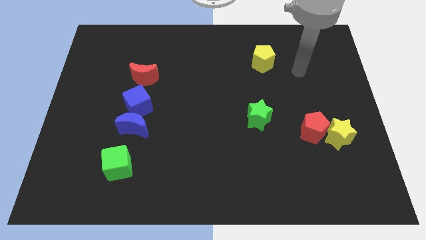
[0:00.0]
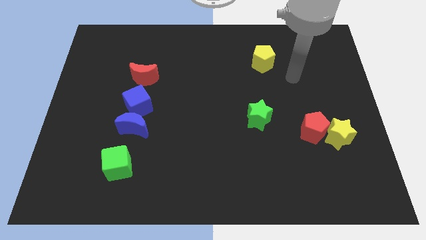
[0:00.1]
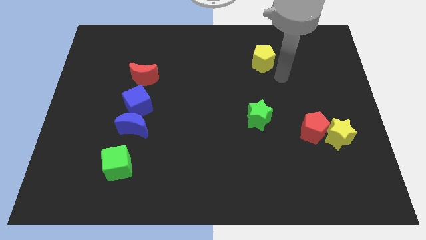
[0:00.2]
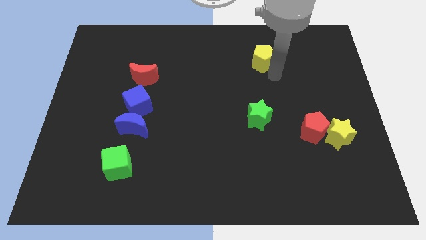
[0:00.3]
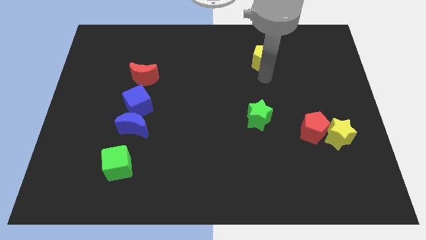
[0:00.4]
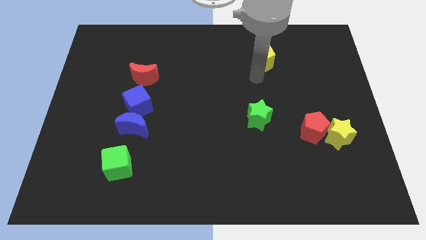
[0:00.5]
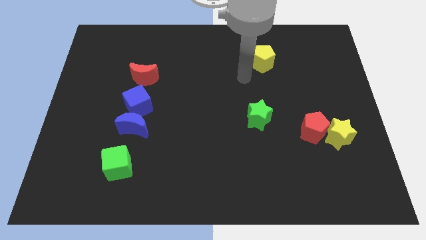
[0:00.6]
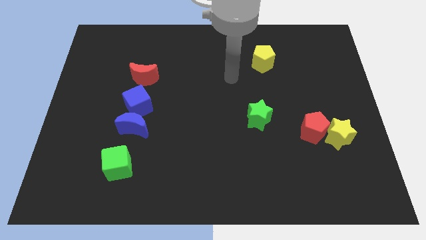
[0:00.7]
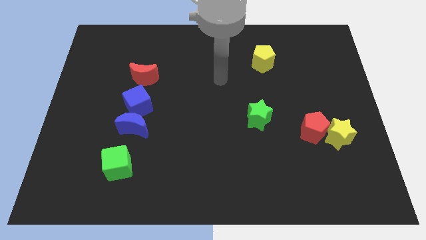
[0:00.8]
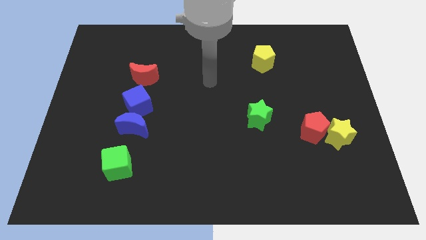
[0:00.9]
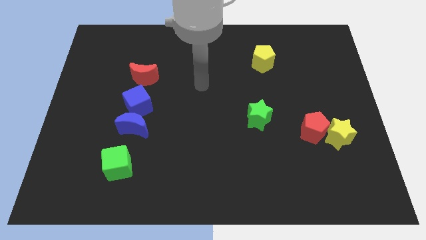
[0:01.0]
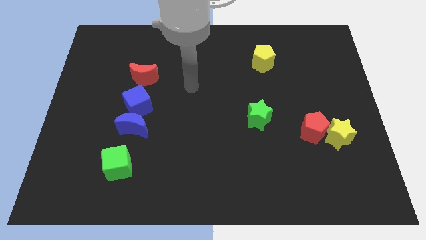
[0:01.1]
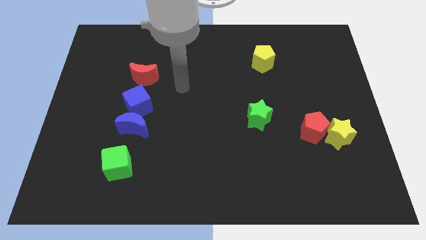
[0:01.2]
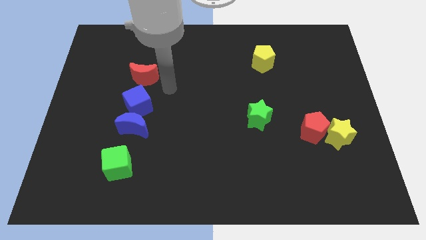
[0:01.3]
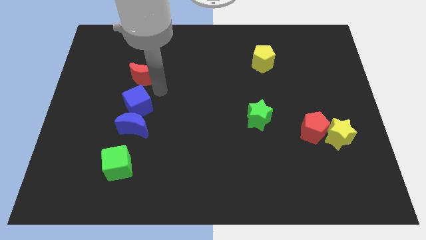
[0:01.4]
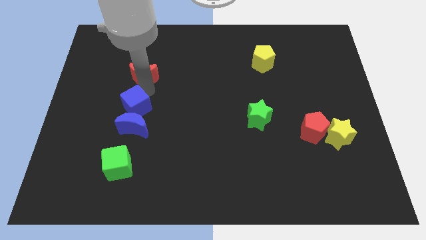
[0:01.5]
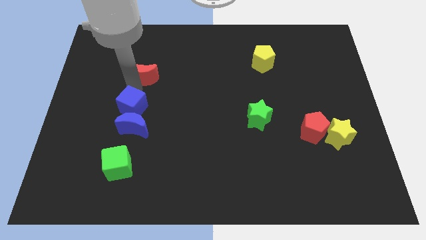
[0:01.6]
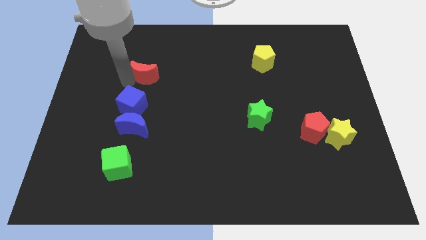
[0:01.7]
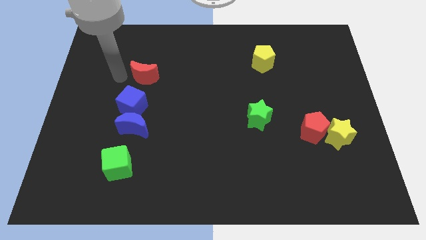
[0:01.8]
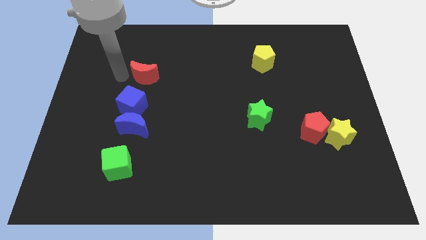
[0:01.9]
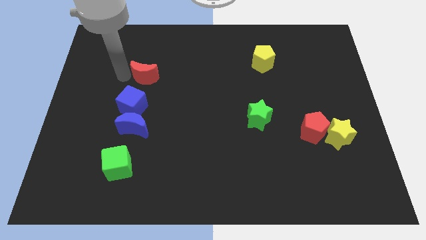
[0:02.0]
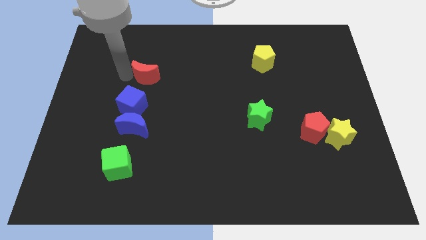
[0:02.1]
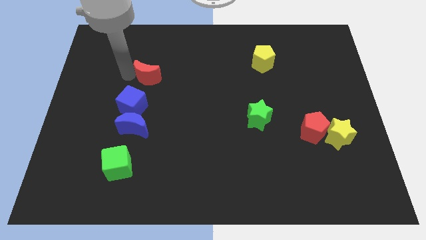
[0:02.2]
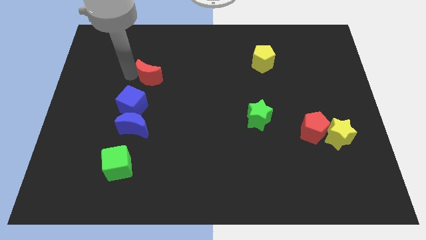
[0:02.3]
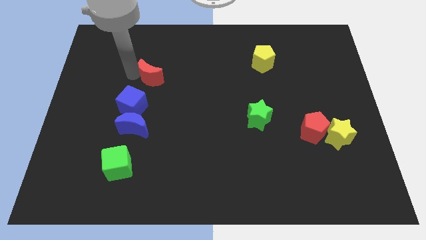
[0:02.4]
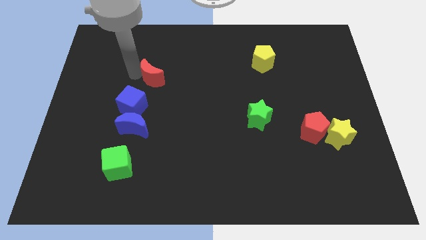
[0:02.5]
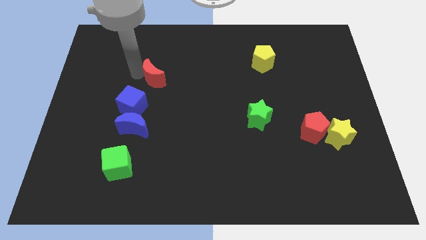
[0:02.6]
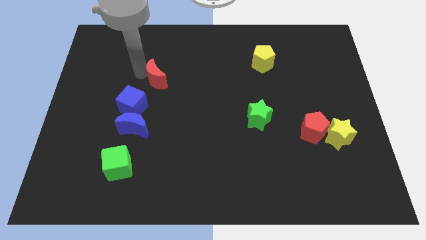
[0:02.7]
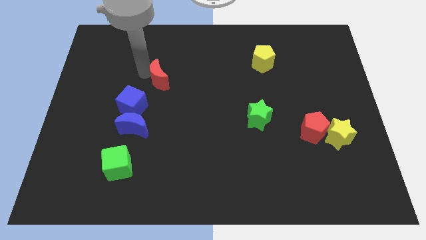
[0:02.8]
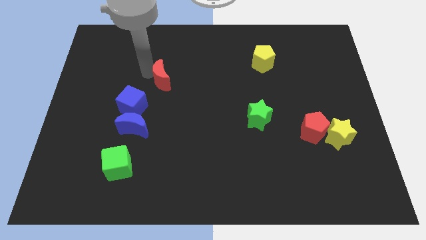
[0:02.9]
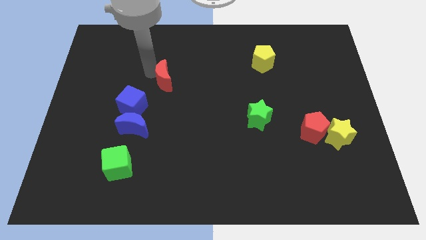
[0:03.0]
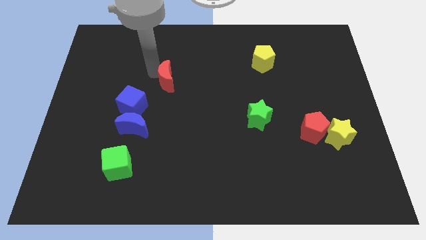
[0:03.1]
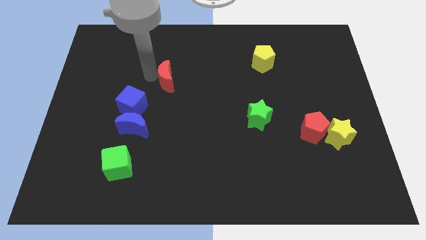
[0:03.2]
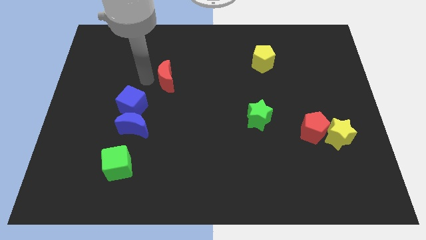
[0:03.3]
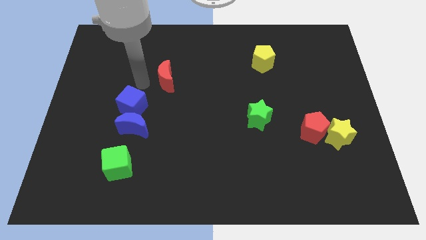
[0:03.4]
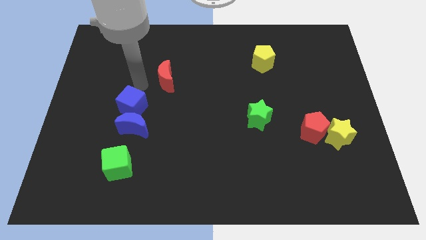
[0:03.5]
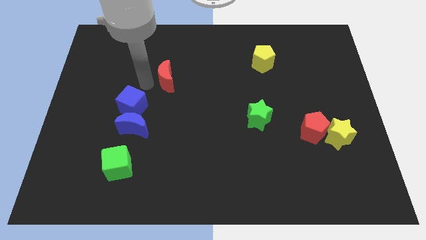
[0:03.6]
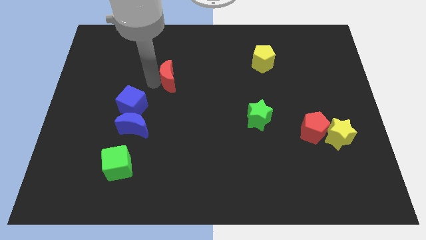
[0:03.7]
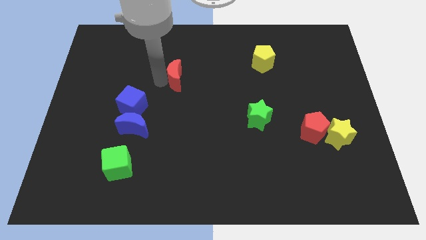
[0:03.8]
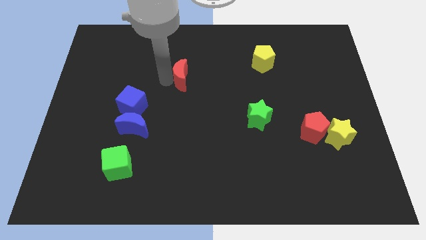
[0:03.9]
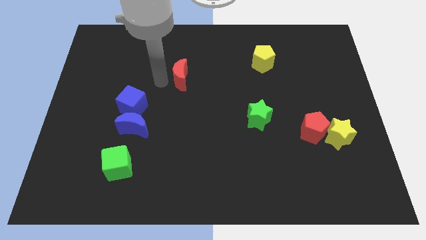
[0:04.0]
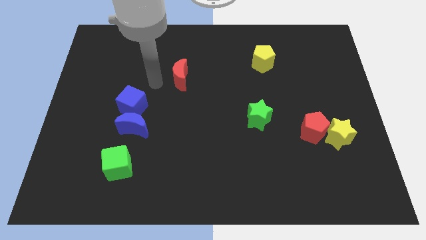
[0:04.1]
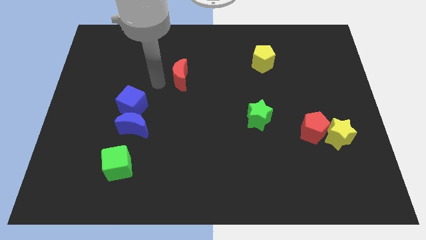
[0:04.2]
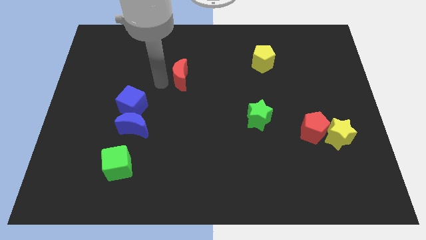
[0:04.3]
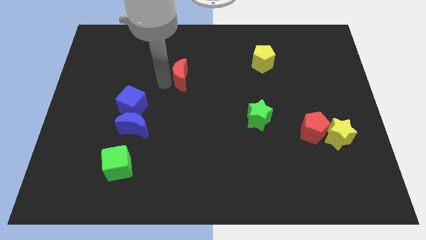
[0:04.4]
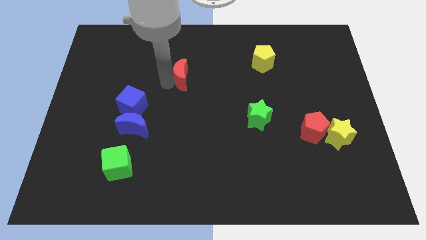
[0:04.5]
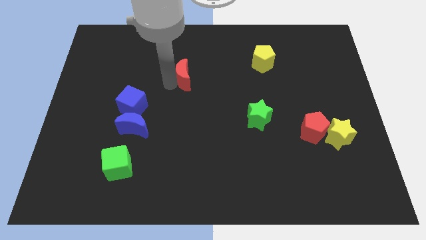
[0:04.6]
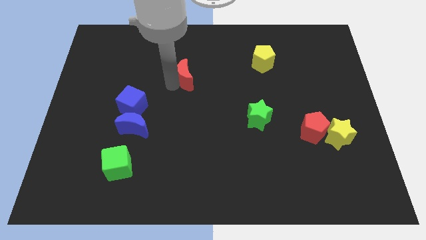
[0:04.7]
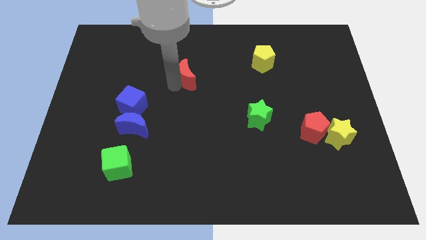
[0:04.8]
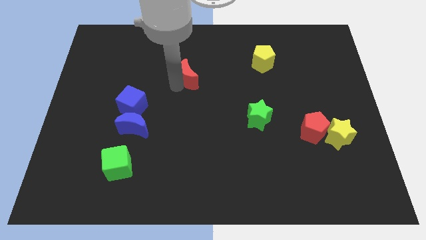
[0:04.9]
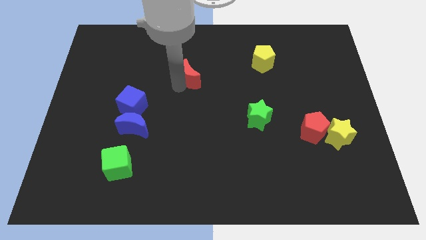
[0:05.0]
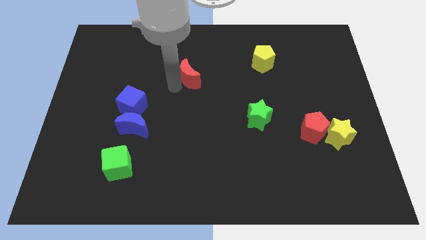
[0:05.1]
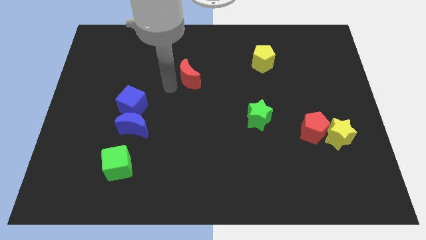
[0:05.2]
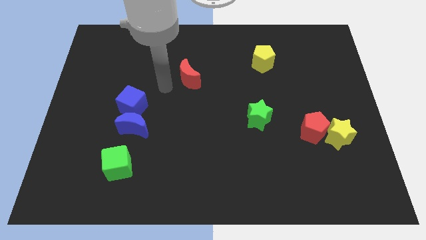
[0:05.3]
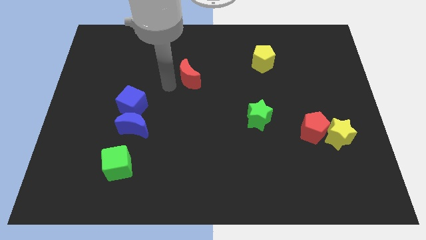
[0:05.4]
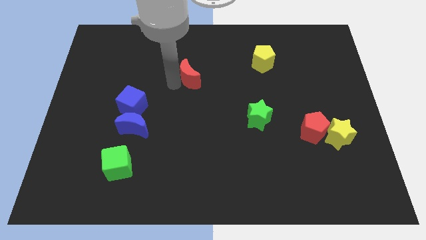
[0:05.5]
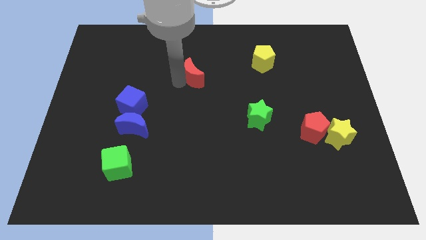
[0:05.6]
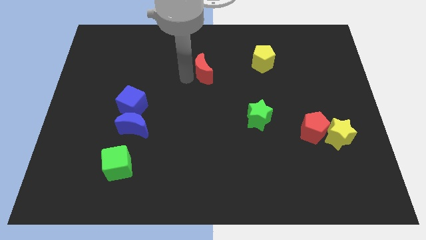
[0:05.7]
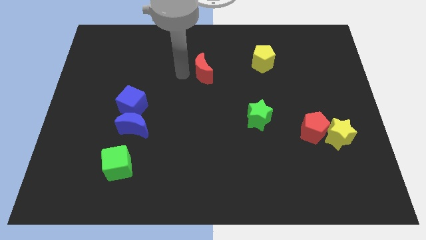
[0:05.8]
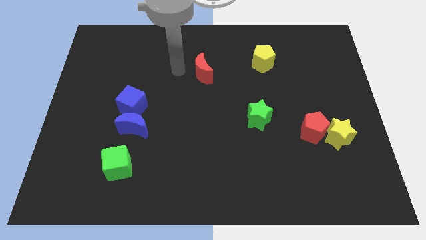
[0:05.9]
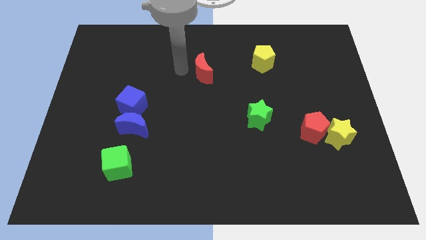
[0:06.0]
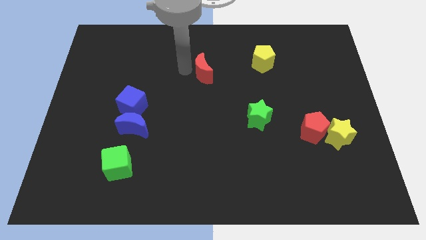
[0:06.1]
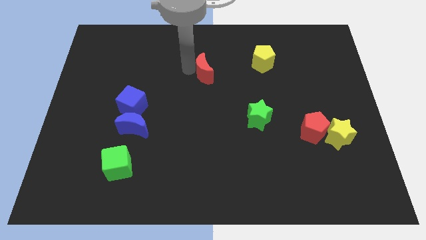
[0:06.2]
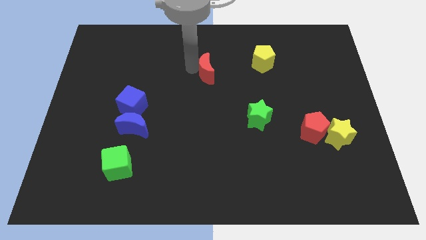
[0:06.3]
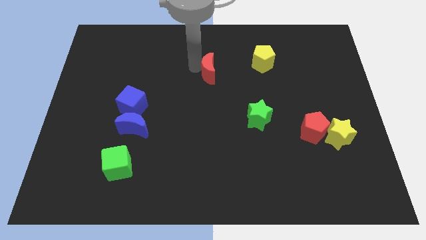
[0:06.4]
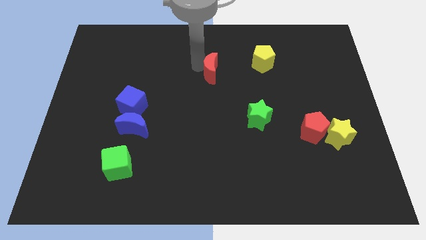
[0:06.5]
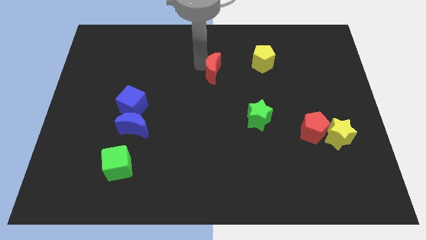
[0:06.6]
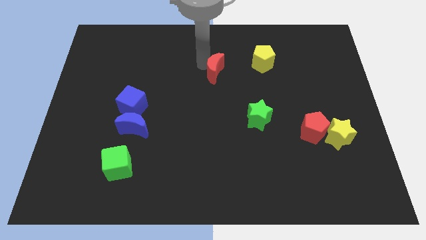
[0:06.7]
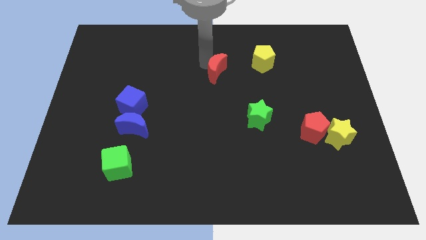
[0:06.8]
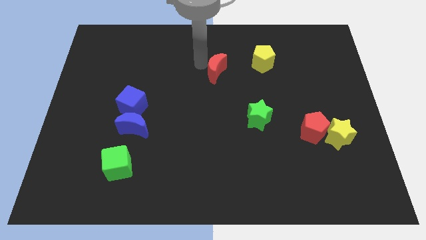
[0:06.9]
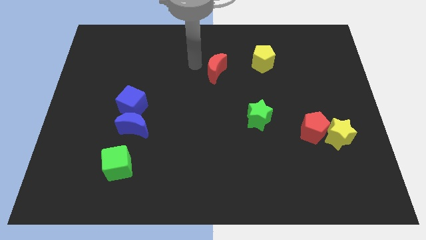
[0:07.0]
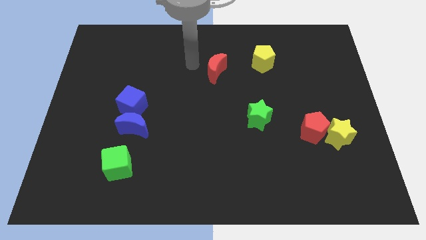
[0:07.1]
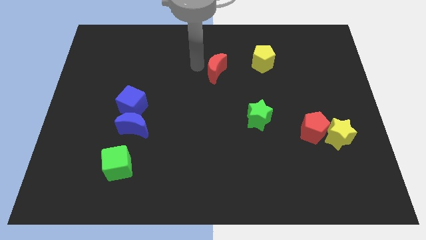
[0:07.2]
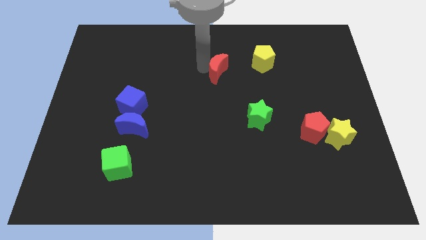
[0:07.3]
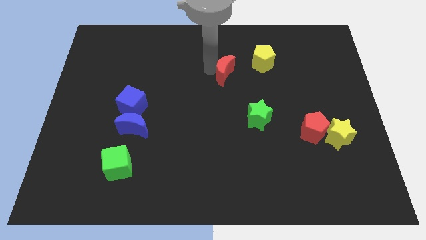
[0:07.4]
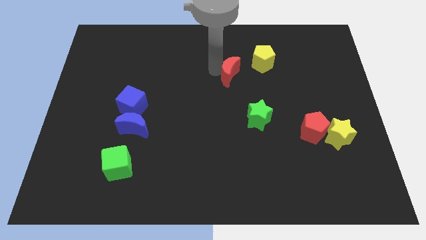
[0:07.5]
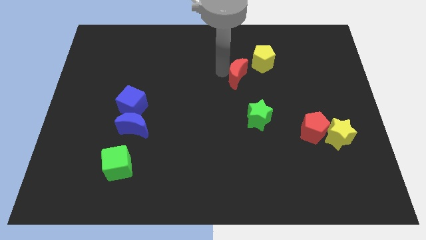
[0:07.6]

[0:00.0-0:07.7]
push the red moon to the top of the green star
